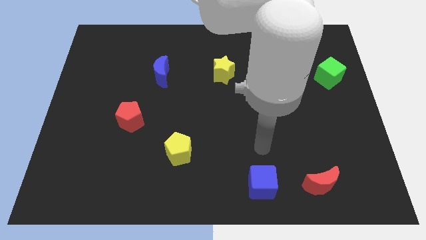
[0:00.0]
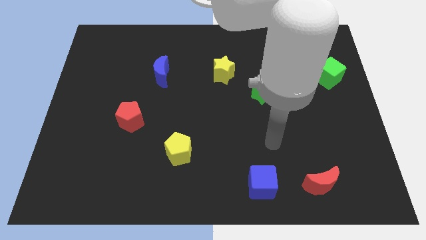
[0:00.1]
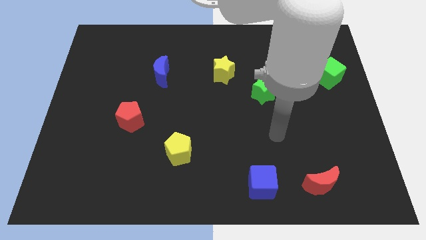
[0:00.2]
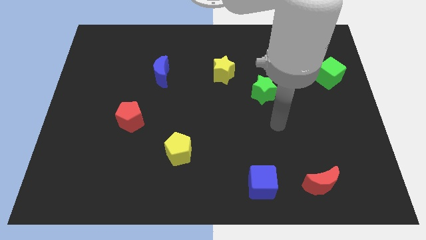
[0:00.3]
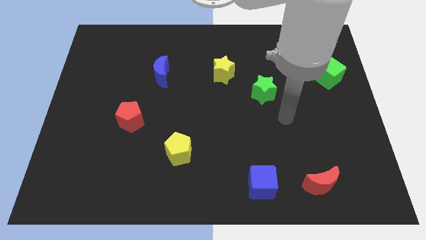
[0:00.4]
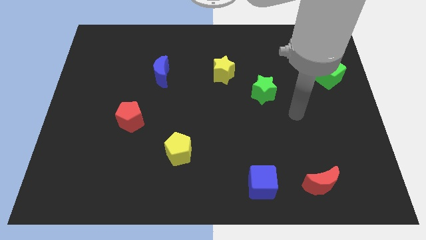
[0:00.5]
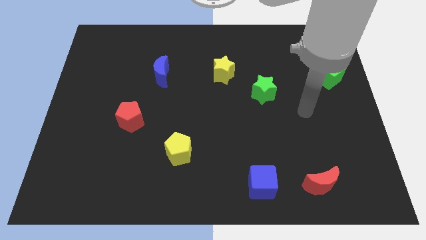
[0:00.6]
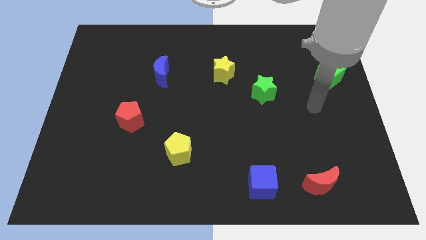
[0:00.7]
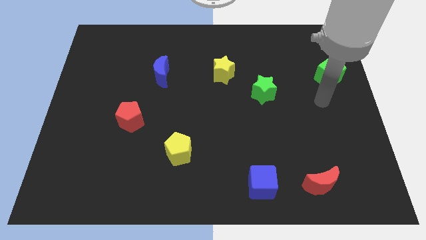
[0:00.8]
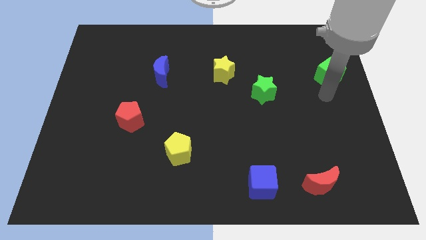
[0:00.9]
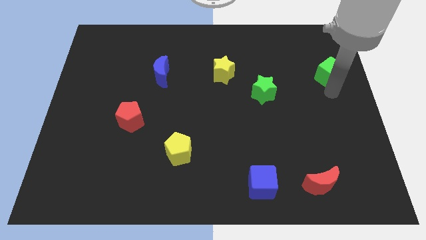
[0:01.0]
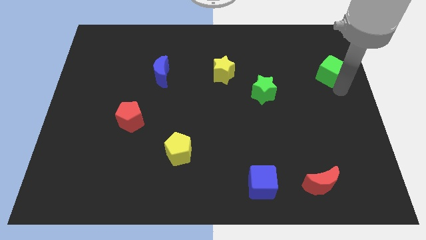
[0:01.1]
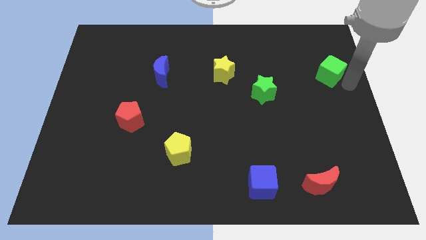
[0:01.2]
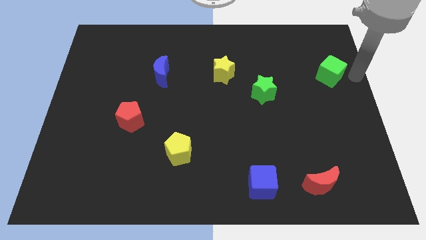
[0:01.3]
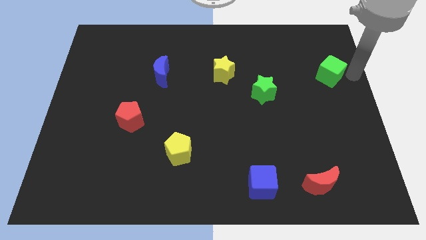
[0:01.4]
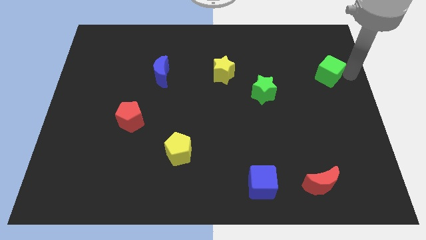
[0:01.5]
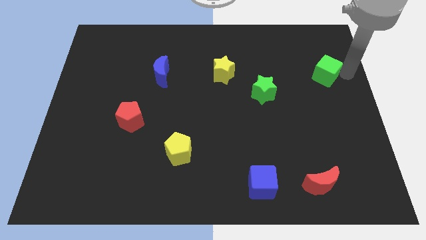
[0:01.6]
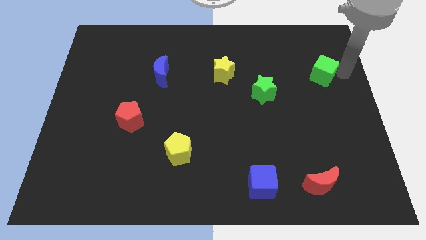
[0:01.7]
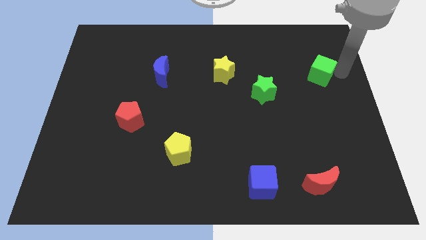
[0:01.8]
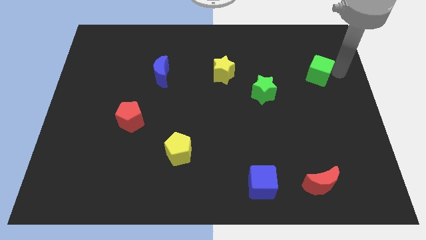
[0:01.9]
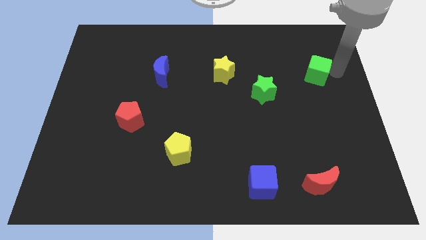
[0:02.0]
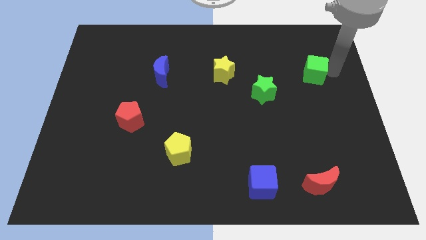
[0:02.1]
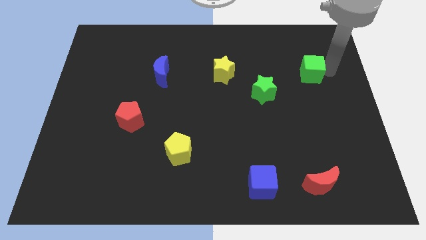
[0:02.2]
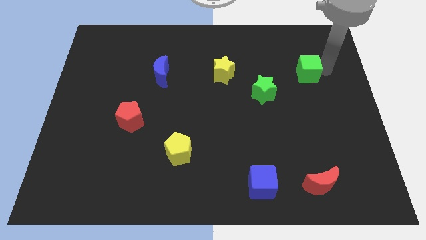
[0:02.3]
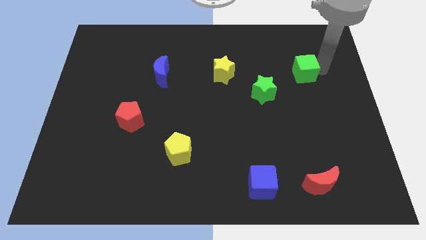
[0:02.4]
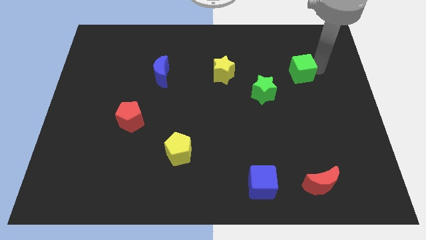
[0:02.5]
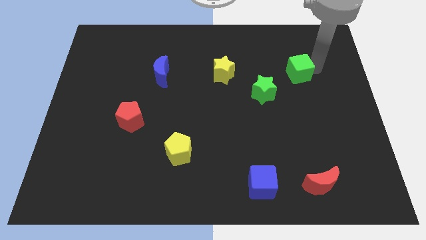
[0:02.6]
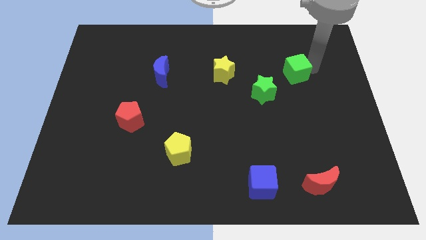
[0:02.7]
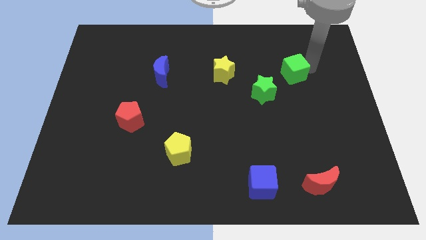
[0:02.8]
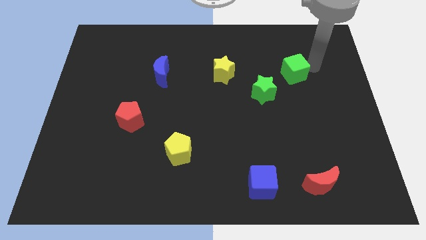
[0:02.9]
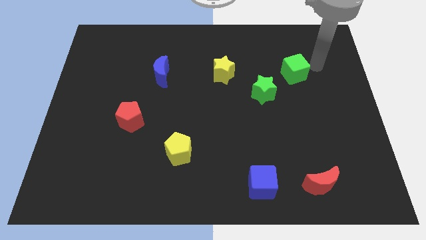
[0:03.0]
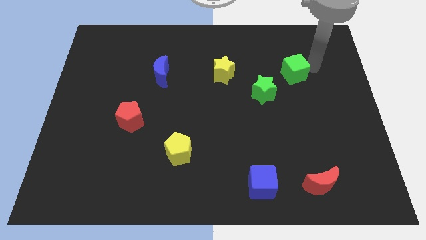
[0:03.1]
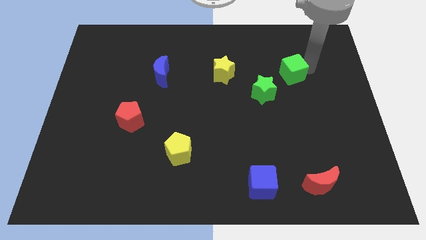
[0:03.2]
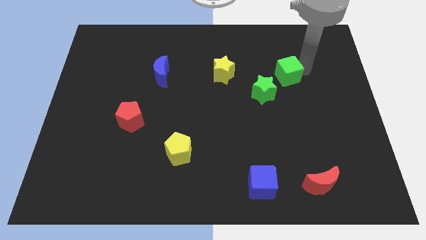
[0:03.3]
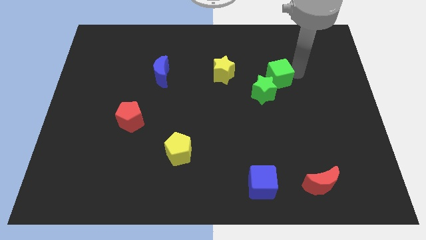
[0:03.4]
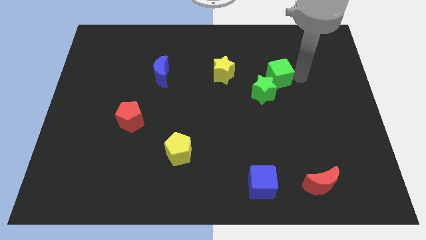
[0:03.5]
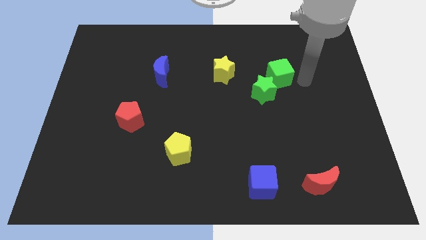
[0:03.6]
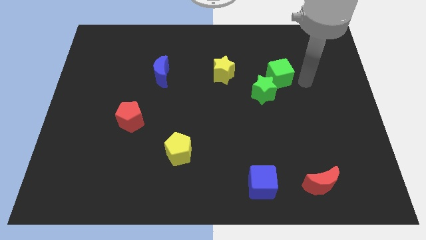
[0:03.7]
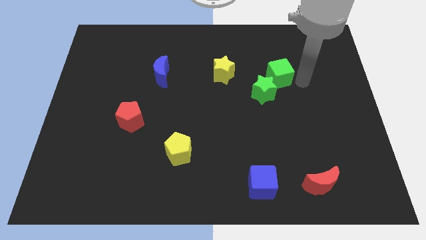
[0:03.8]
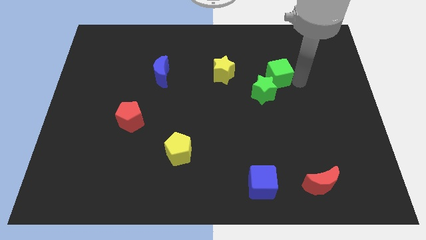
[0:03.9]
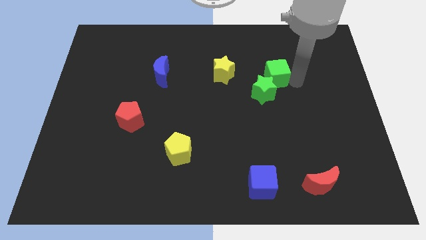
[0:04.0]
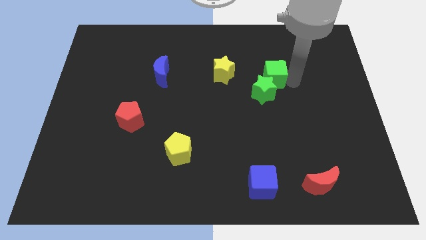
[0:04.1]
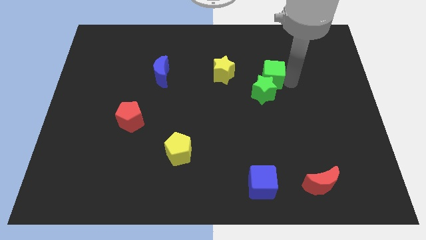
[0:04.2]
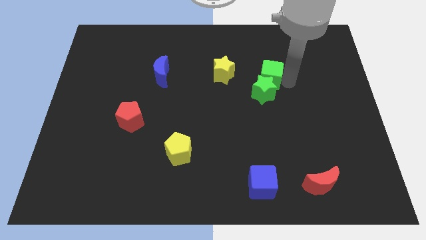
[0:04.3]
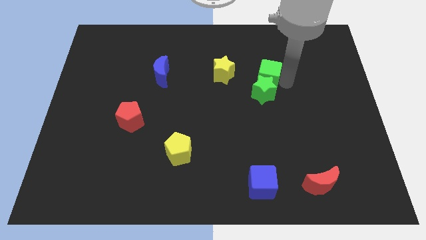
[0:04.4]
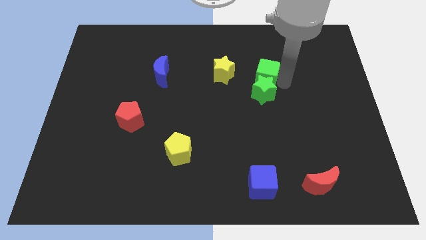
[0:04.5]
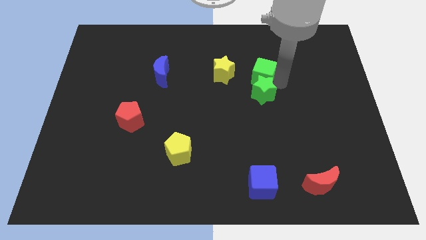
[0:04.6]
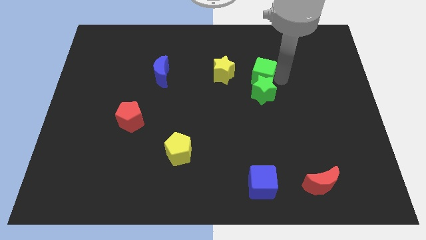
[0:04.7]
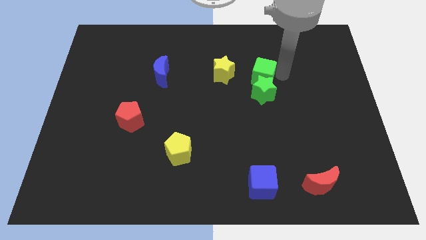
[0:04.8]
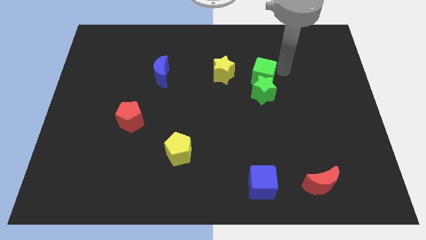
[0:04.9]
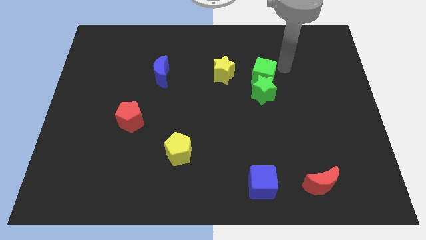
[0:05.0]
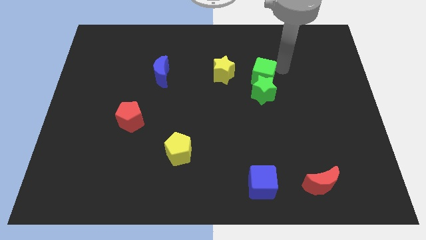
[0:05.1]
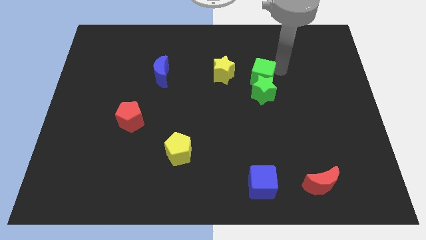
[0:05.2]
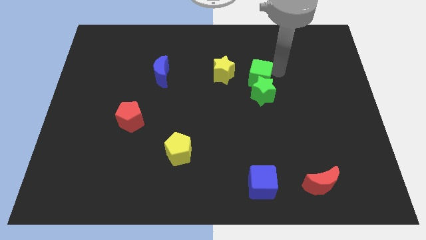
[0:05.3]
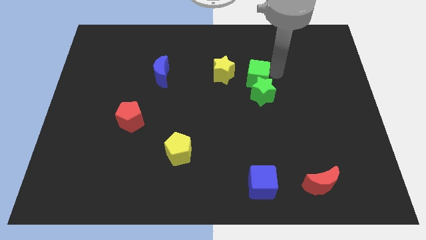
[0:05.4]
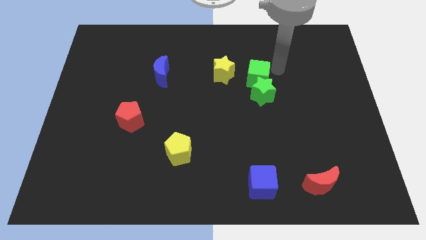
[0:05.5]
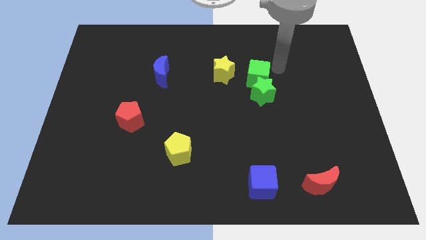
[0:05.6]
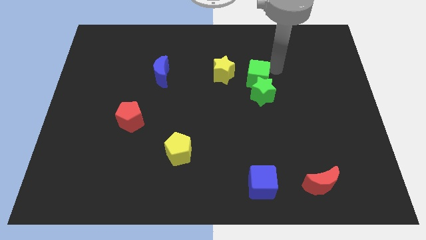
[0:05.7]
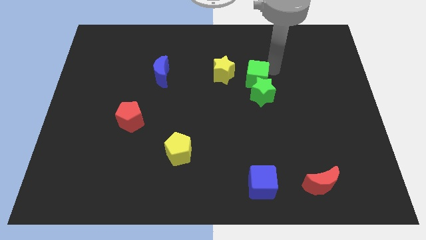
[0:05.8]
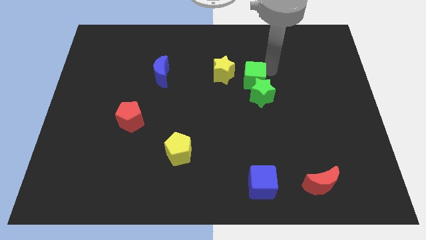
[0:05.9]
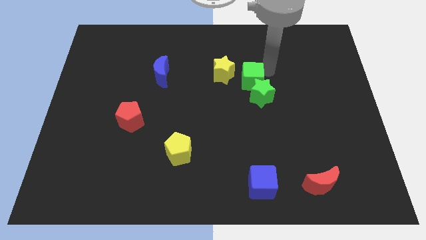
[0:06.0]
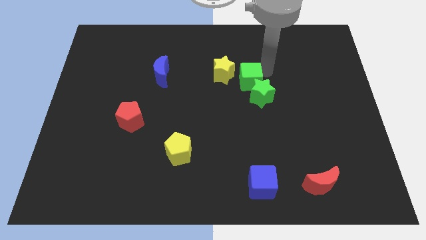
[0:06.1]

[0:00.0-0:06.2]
push the green cube left

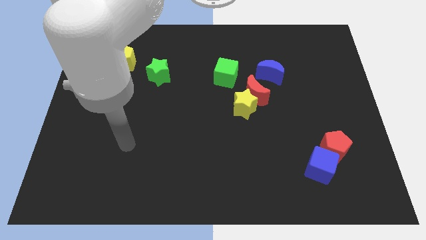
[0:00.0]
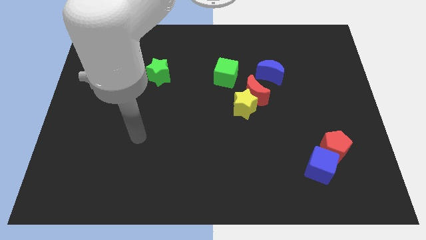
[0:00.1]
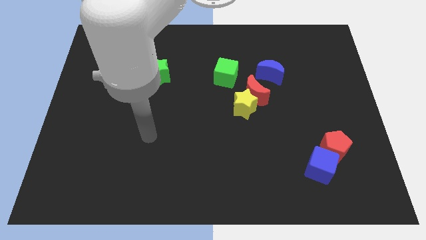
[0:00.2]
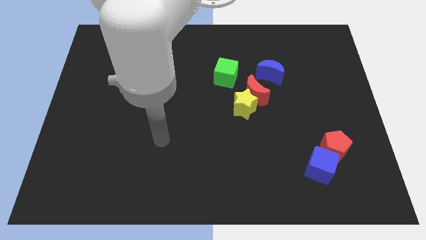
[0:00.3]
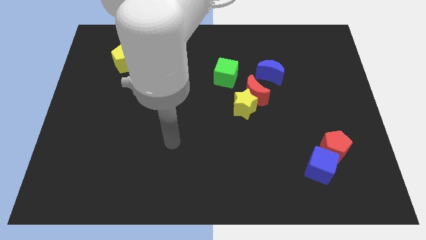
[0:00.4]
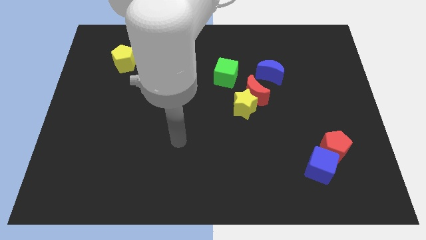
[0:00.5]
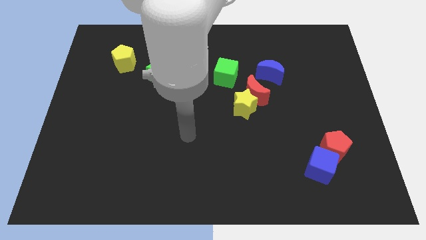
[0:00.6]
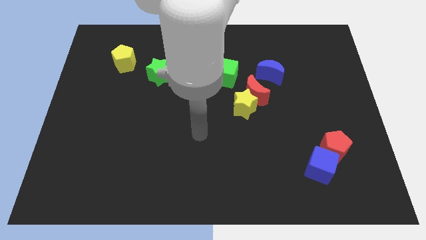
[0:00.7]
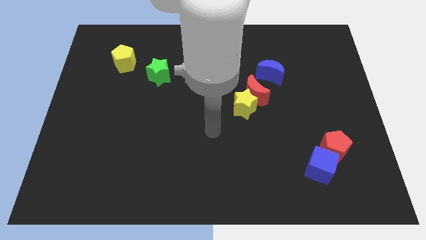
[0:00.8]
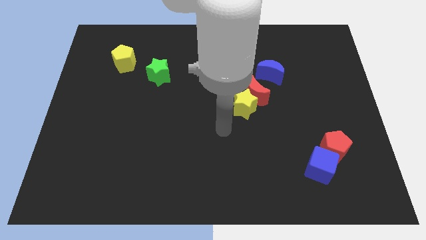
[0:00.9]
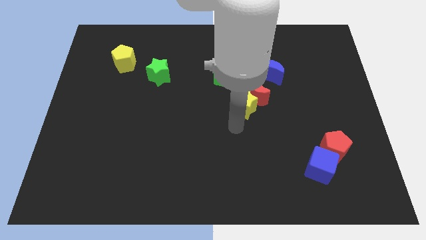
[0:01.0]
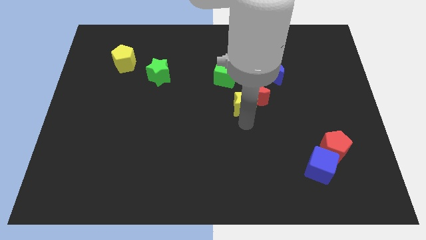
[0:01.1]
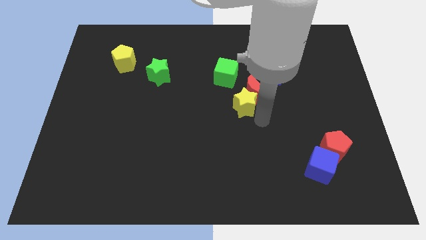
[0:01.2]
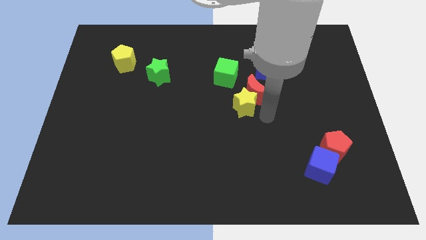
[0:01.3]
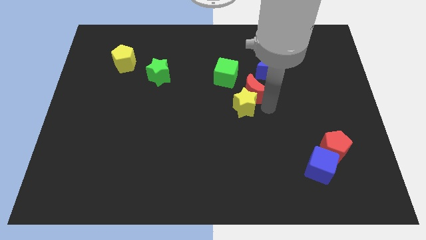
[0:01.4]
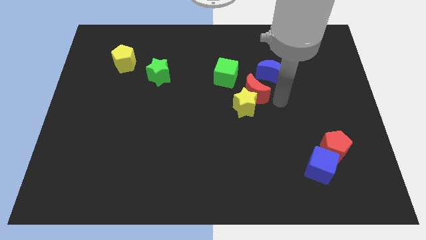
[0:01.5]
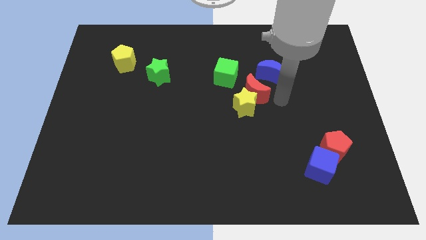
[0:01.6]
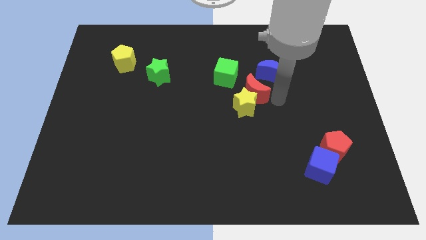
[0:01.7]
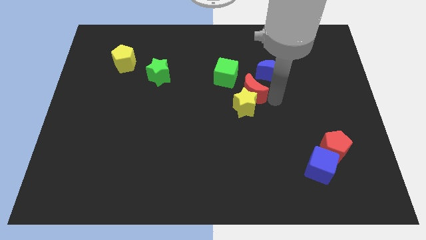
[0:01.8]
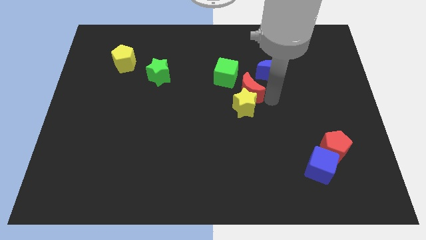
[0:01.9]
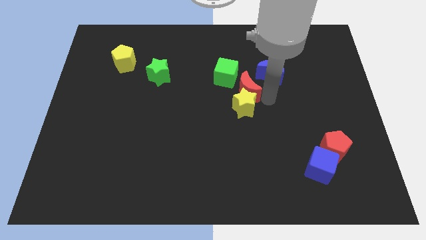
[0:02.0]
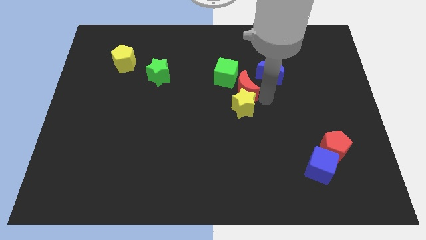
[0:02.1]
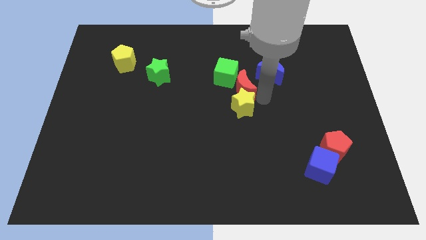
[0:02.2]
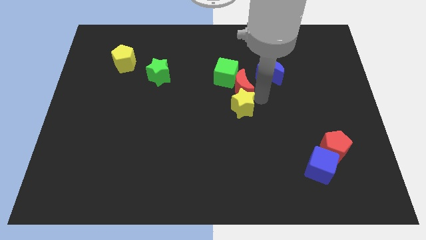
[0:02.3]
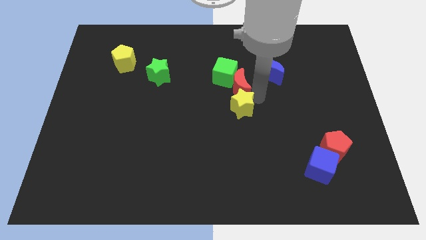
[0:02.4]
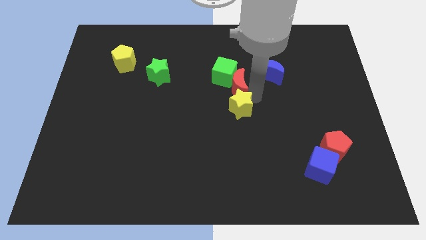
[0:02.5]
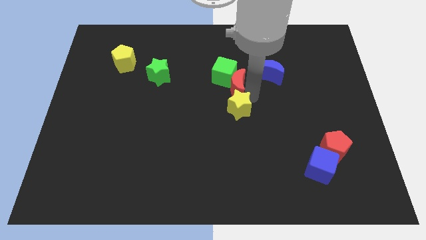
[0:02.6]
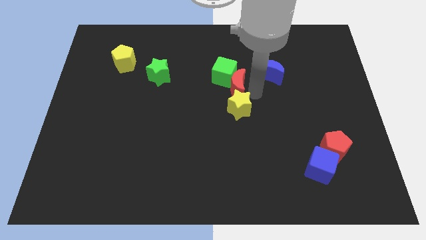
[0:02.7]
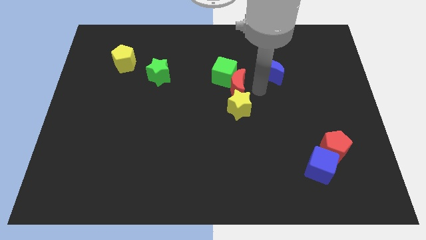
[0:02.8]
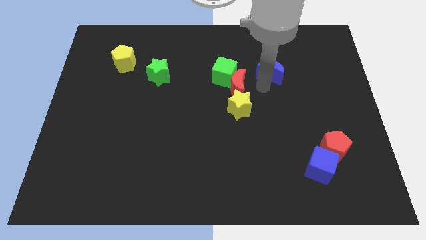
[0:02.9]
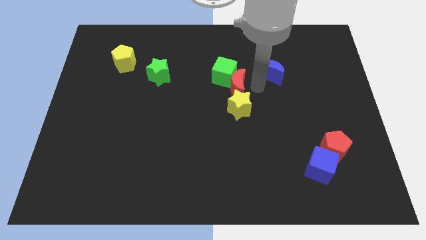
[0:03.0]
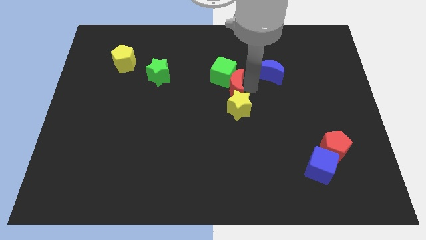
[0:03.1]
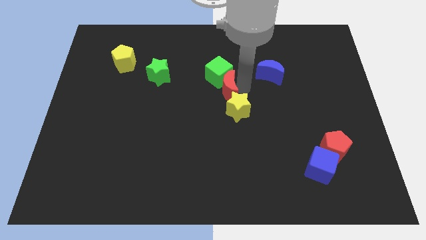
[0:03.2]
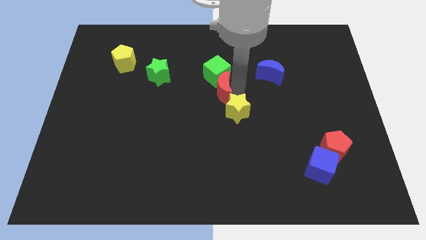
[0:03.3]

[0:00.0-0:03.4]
move the red moon left a little bit
